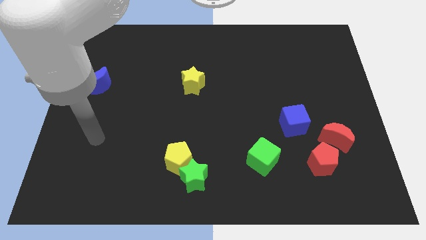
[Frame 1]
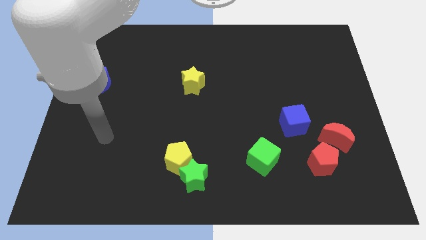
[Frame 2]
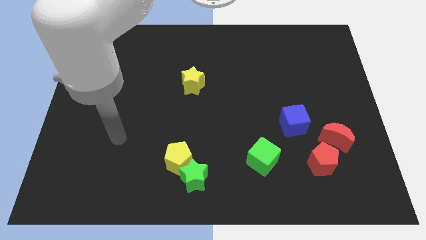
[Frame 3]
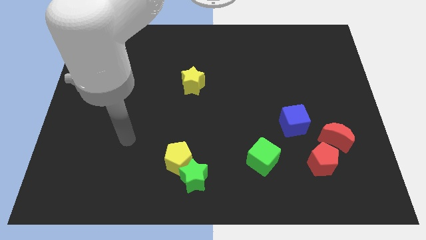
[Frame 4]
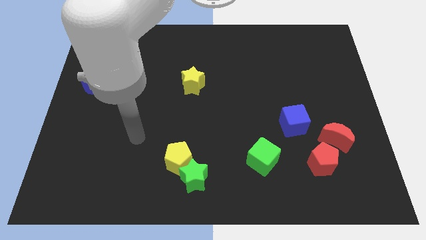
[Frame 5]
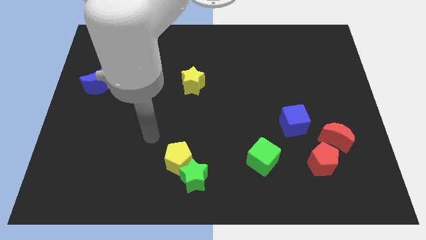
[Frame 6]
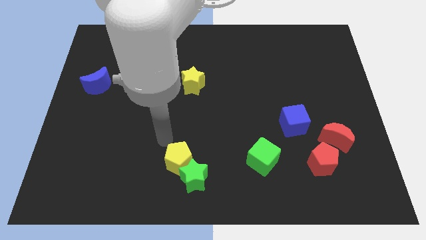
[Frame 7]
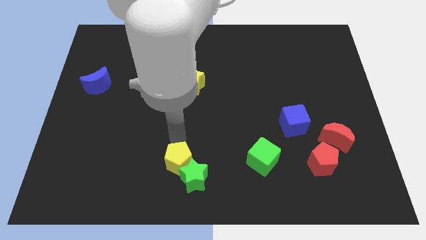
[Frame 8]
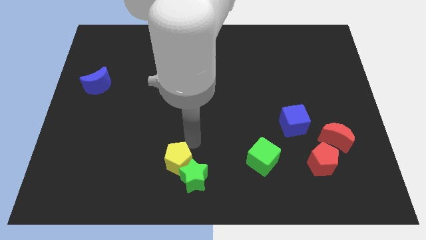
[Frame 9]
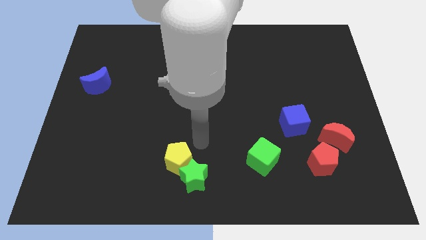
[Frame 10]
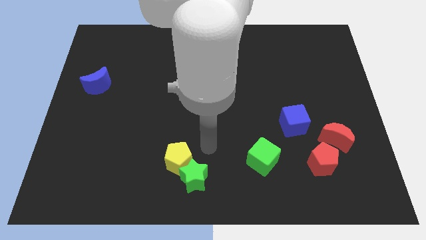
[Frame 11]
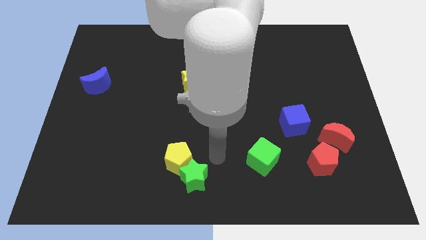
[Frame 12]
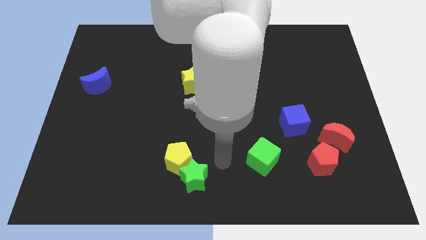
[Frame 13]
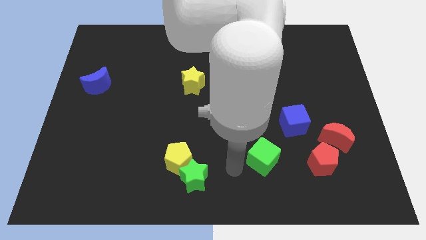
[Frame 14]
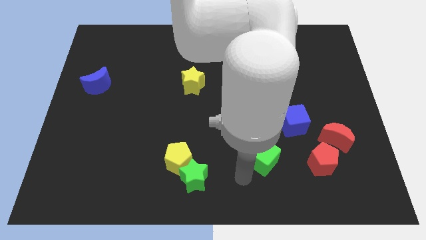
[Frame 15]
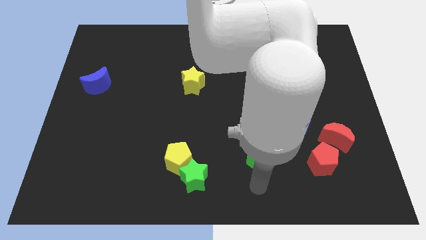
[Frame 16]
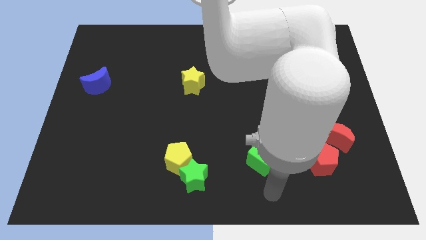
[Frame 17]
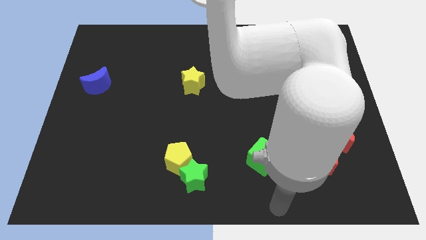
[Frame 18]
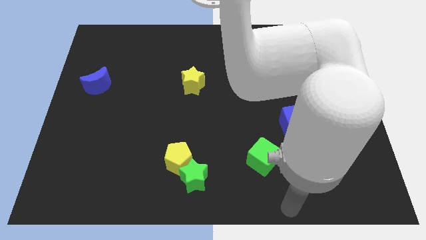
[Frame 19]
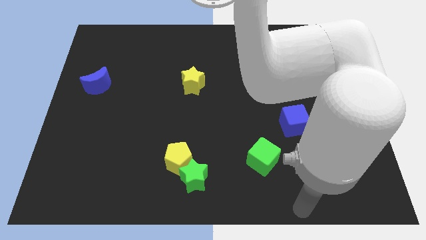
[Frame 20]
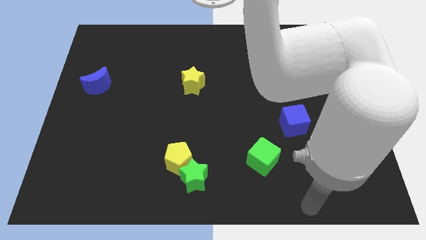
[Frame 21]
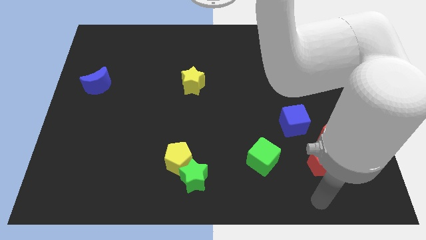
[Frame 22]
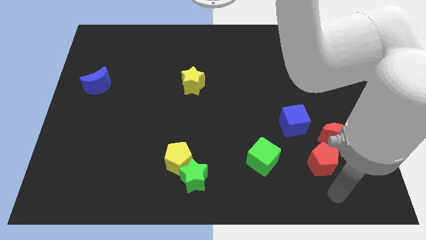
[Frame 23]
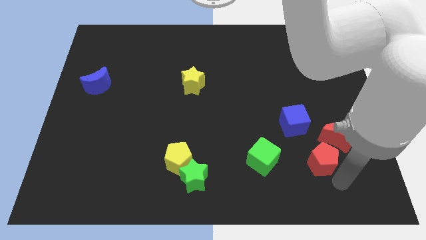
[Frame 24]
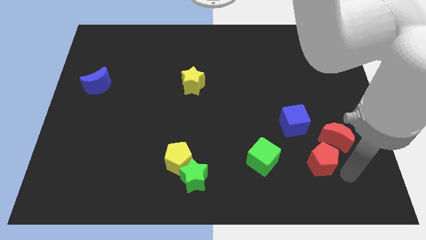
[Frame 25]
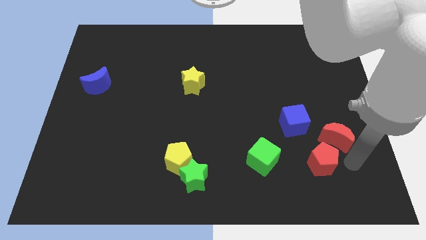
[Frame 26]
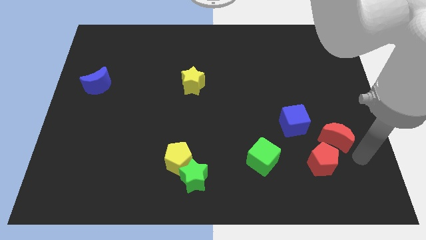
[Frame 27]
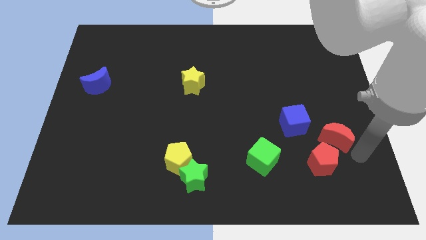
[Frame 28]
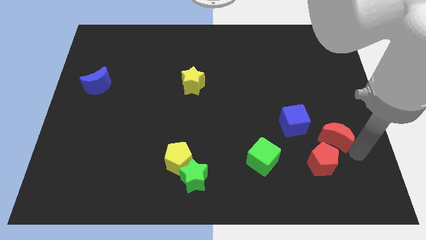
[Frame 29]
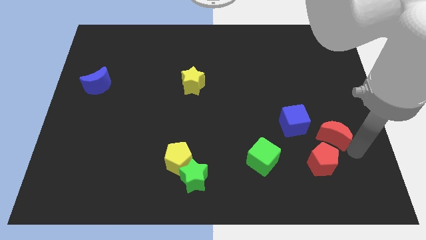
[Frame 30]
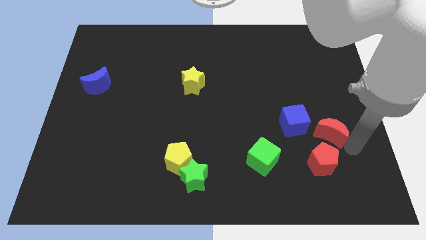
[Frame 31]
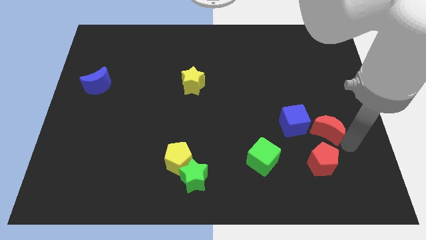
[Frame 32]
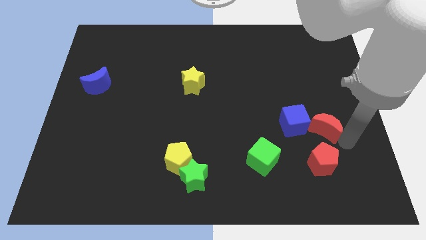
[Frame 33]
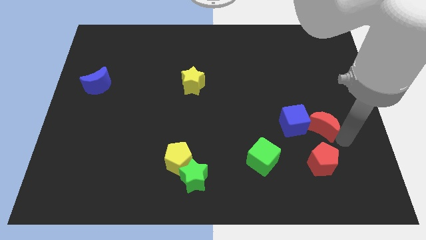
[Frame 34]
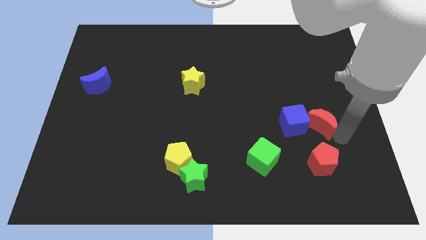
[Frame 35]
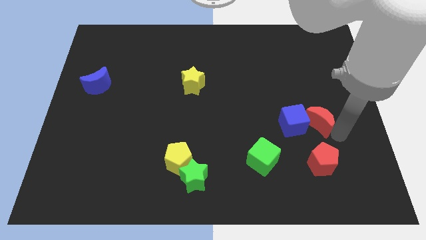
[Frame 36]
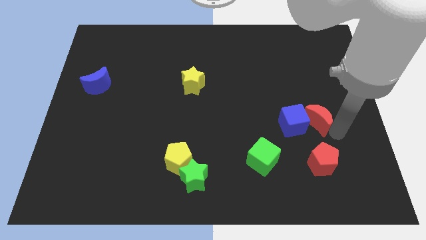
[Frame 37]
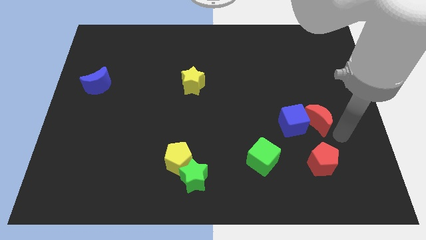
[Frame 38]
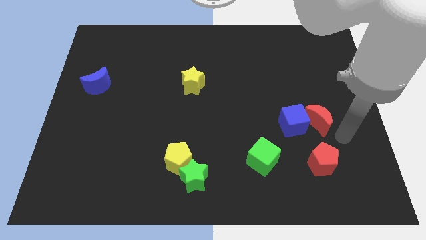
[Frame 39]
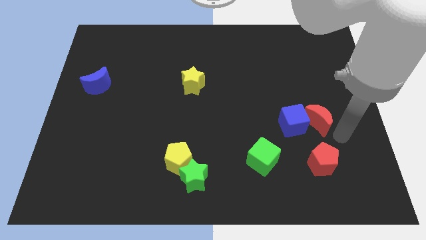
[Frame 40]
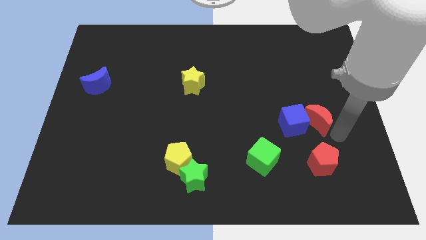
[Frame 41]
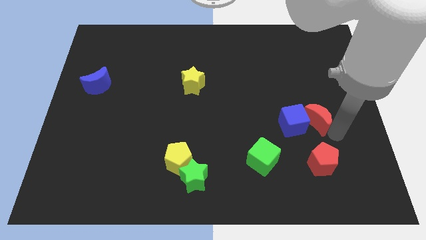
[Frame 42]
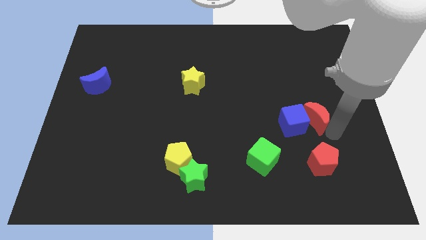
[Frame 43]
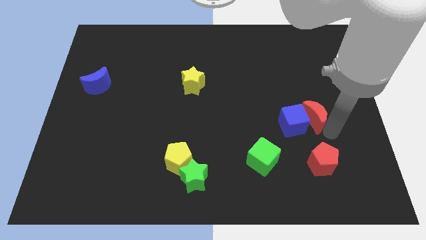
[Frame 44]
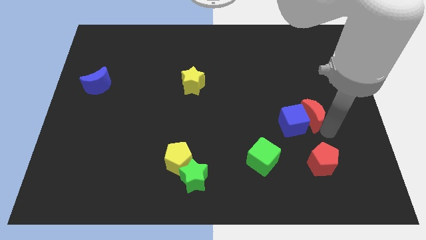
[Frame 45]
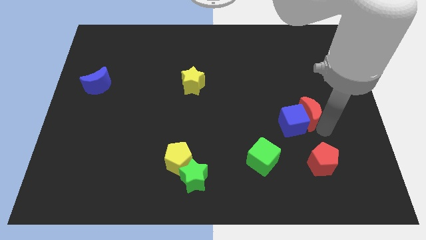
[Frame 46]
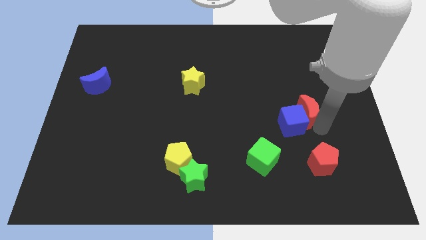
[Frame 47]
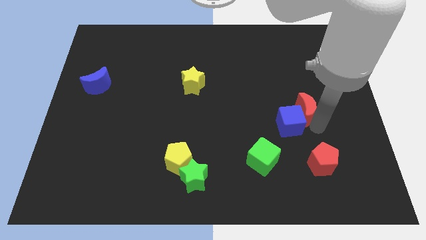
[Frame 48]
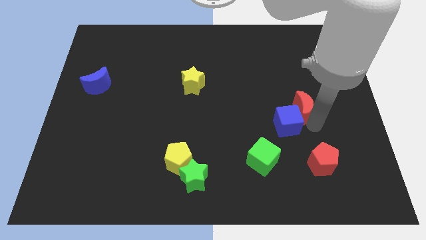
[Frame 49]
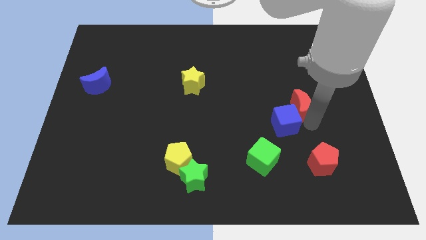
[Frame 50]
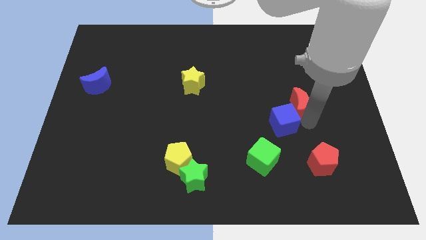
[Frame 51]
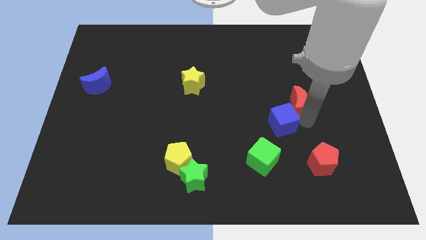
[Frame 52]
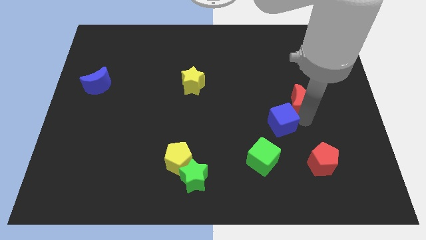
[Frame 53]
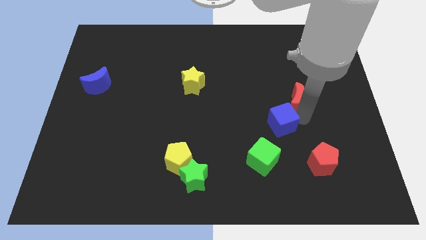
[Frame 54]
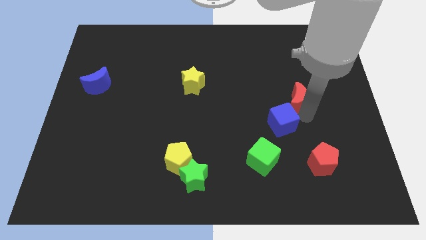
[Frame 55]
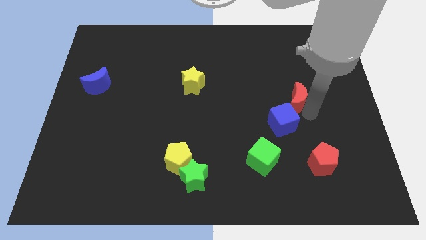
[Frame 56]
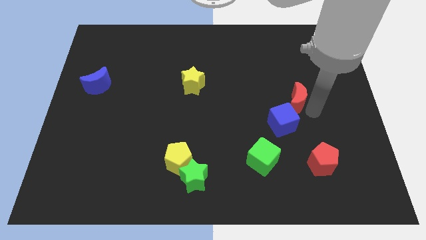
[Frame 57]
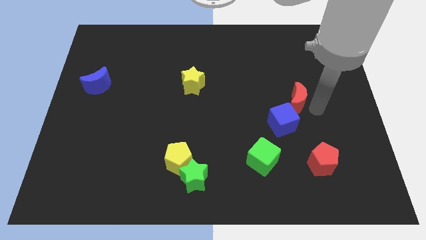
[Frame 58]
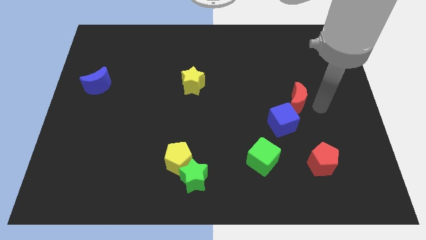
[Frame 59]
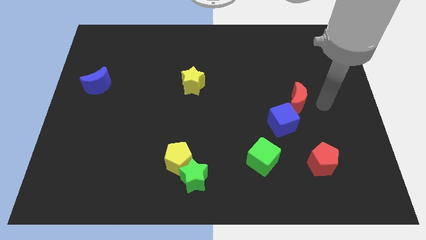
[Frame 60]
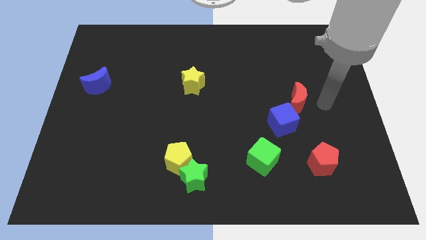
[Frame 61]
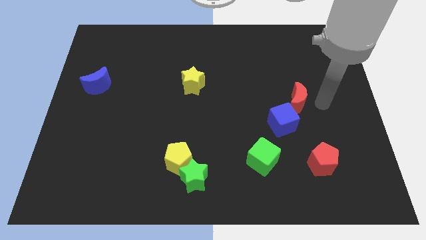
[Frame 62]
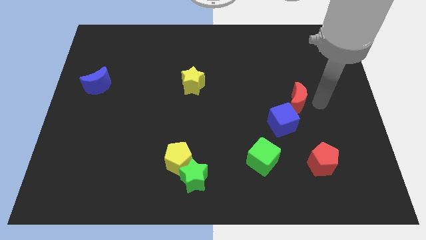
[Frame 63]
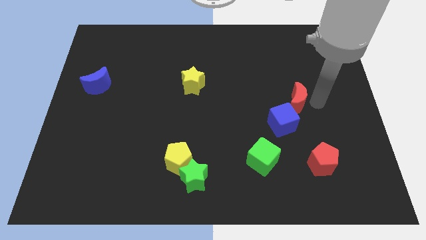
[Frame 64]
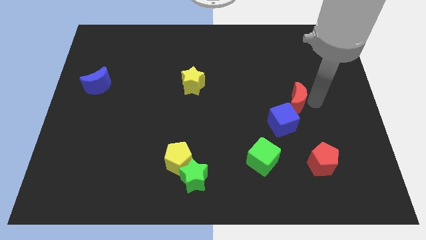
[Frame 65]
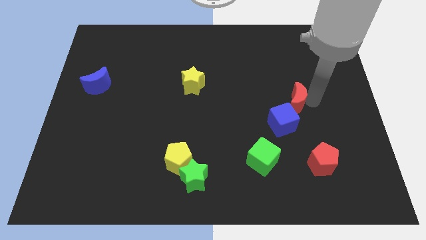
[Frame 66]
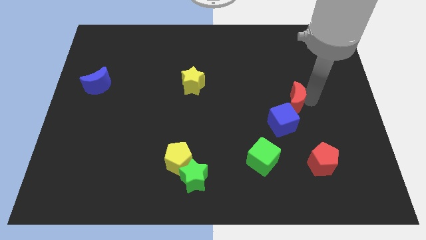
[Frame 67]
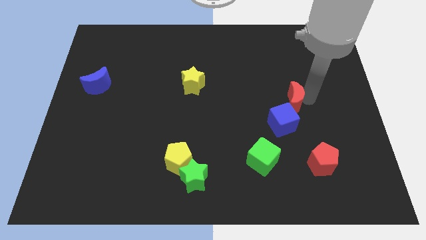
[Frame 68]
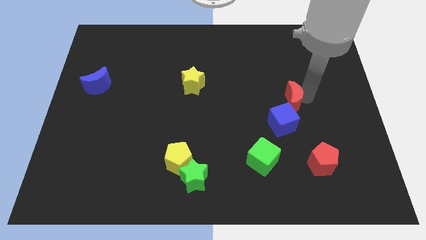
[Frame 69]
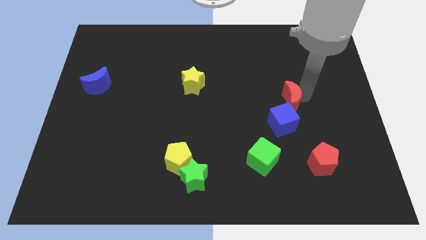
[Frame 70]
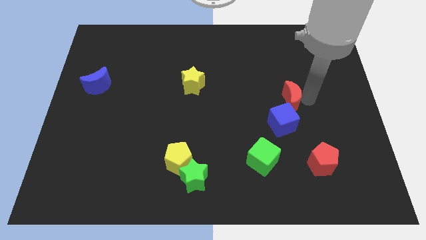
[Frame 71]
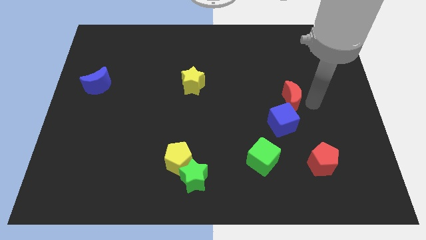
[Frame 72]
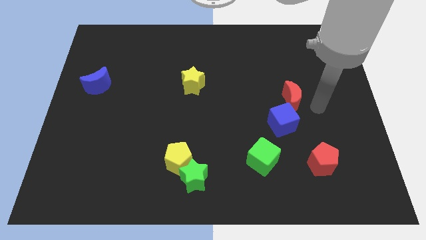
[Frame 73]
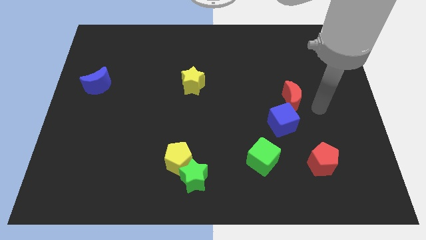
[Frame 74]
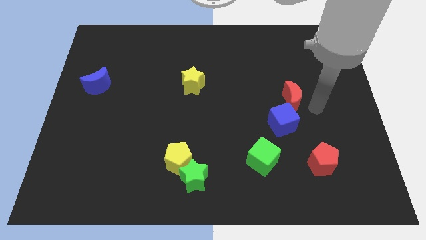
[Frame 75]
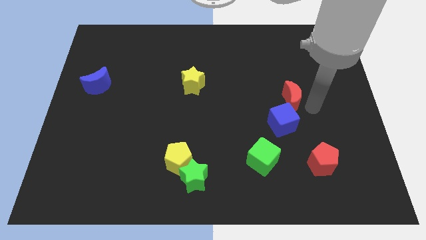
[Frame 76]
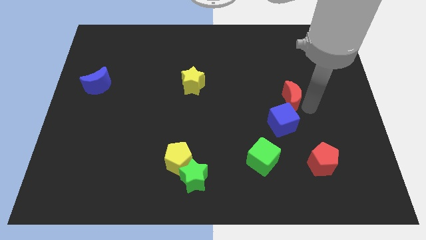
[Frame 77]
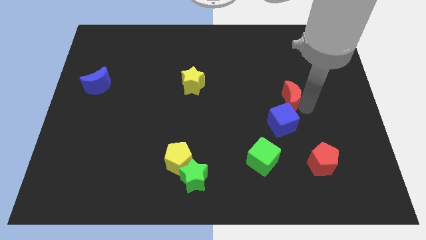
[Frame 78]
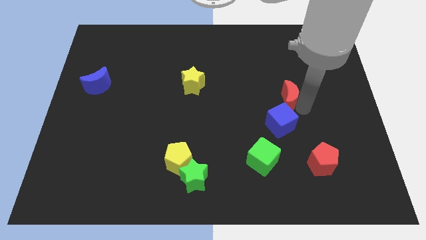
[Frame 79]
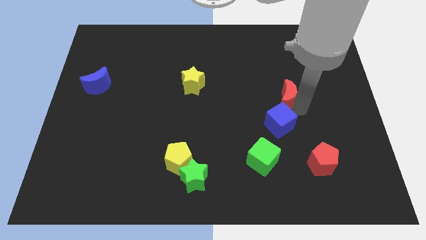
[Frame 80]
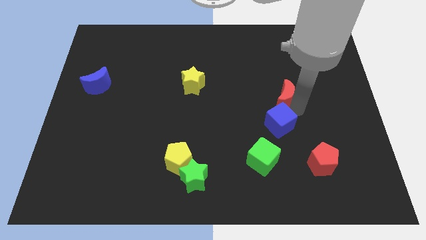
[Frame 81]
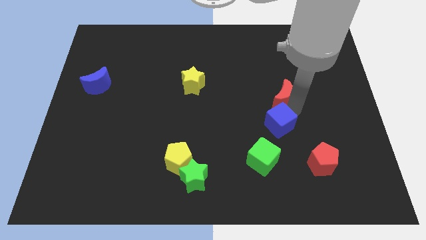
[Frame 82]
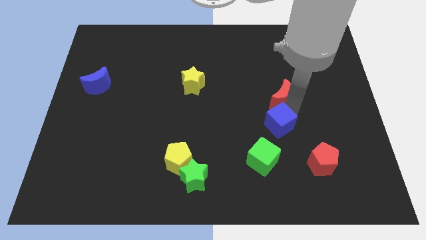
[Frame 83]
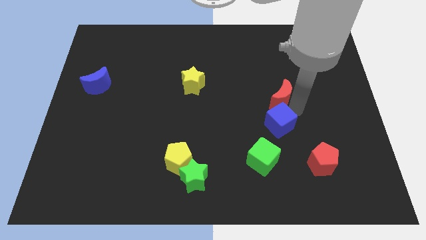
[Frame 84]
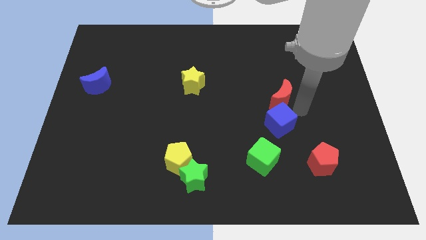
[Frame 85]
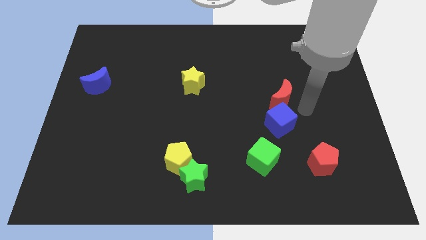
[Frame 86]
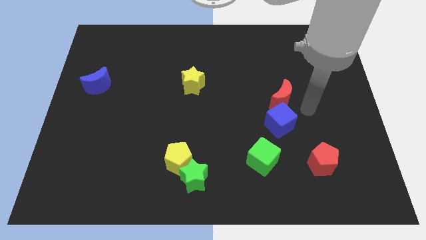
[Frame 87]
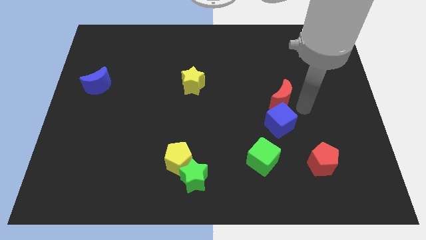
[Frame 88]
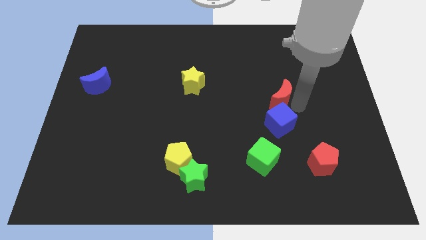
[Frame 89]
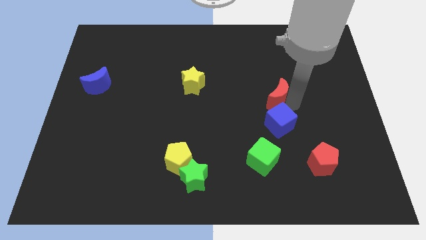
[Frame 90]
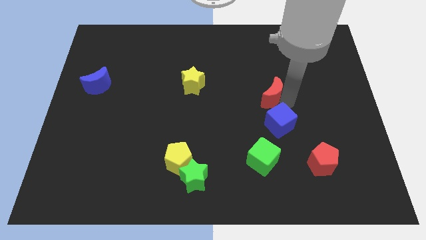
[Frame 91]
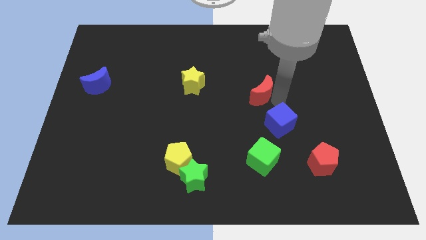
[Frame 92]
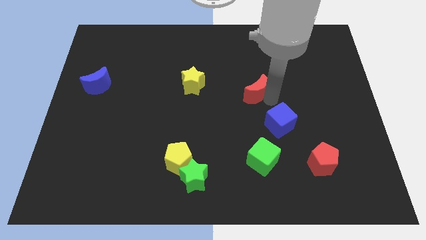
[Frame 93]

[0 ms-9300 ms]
move the red moon upwards and then left
